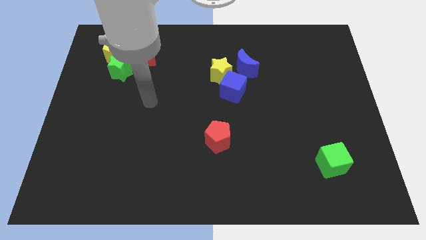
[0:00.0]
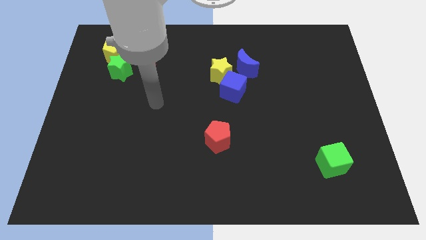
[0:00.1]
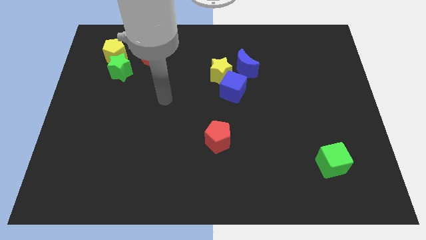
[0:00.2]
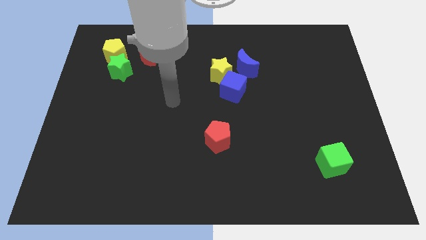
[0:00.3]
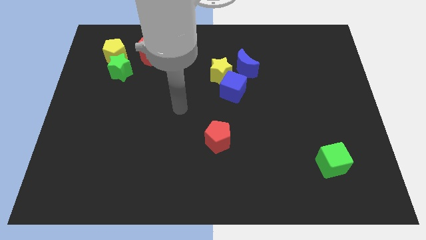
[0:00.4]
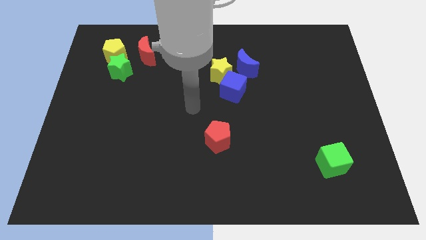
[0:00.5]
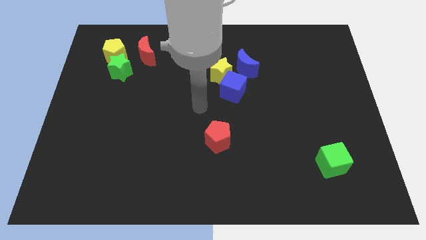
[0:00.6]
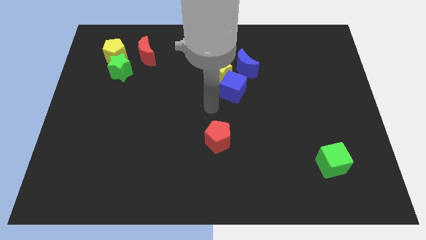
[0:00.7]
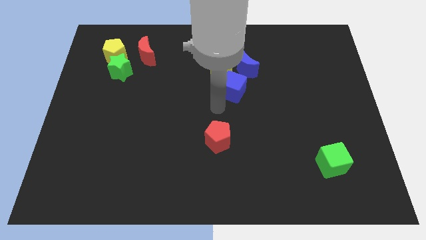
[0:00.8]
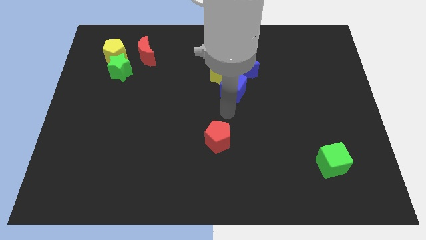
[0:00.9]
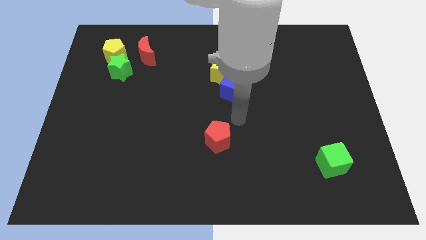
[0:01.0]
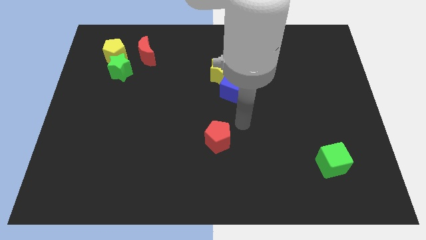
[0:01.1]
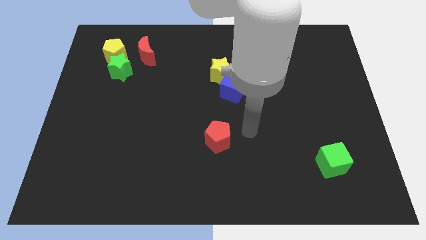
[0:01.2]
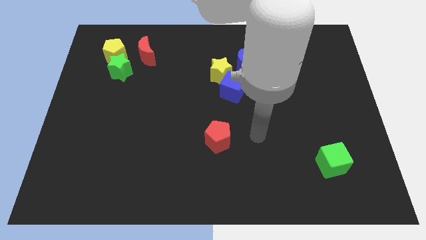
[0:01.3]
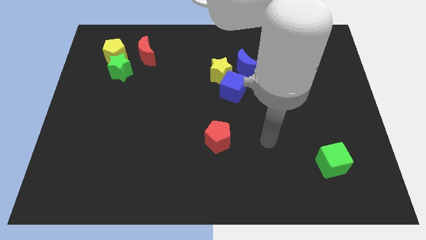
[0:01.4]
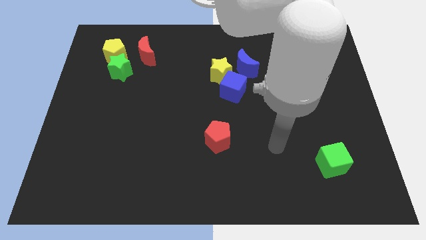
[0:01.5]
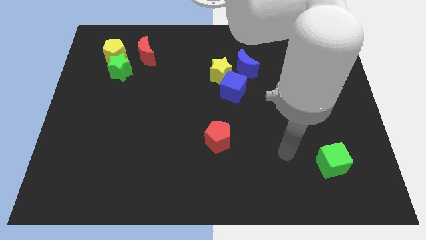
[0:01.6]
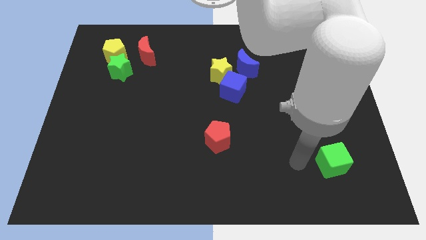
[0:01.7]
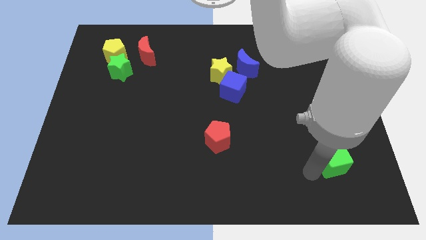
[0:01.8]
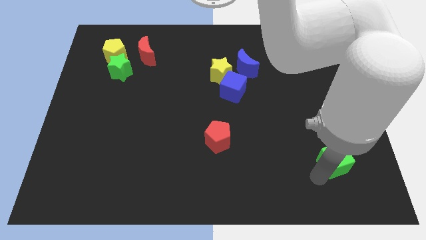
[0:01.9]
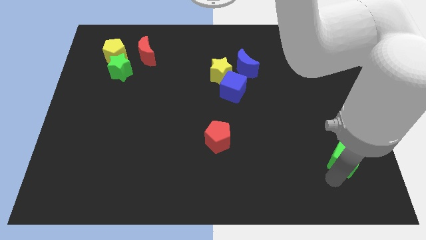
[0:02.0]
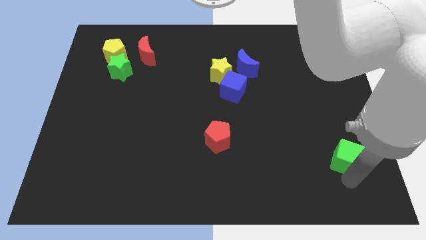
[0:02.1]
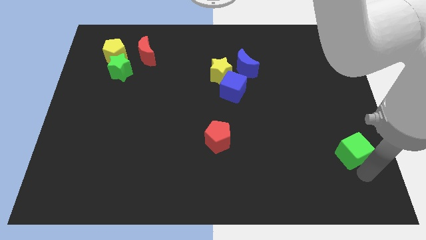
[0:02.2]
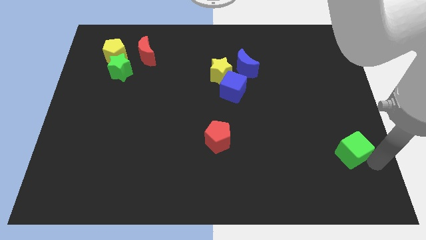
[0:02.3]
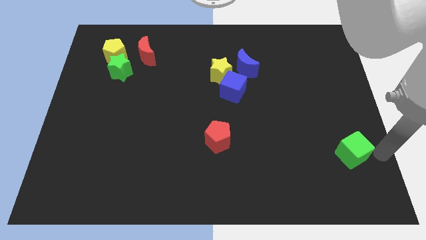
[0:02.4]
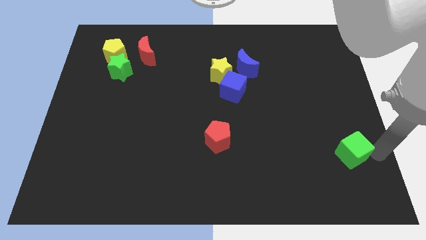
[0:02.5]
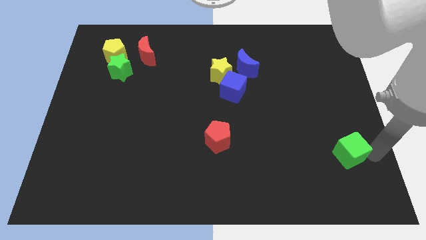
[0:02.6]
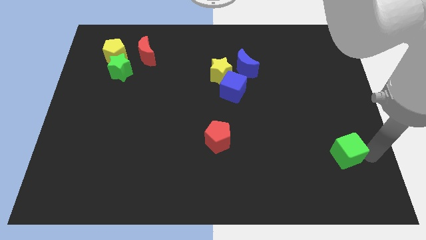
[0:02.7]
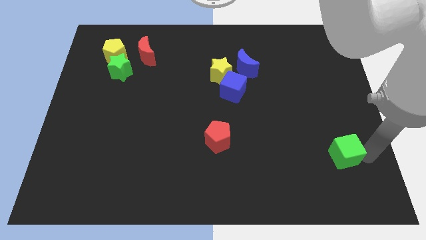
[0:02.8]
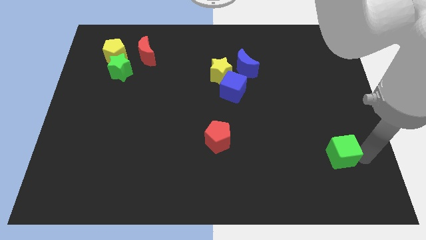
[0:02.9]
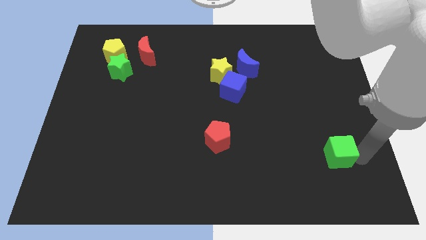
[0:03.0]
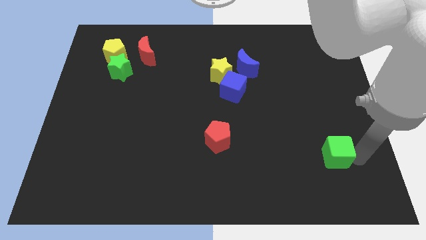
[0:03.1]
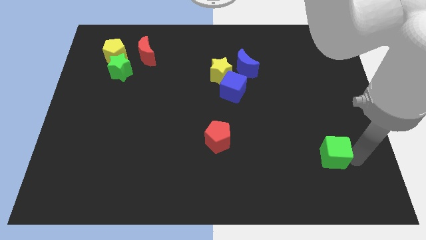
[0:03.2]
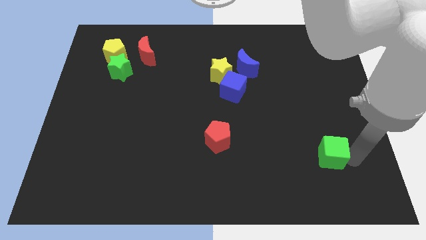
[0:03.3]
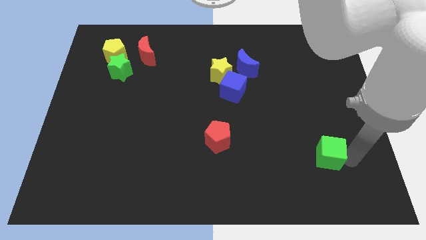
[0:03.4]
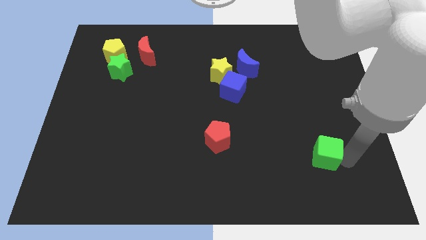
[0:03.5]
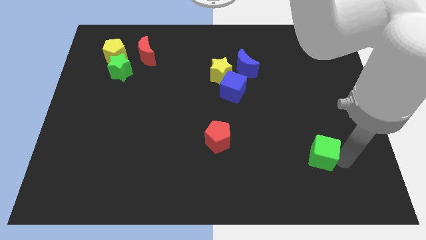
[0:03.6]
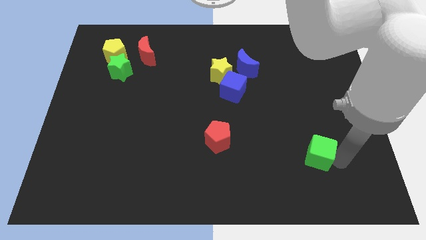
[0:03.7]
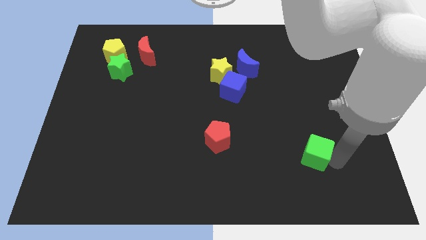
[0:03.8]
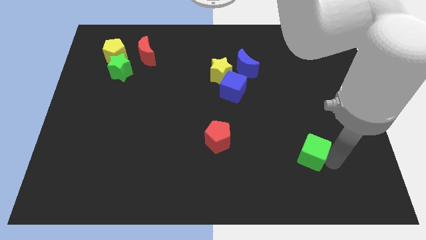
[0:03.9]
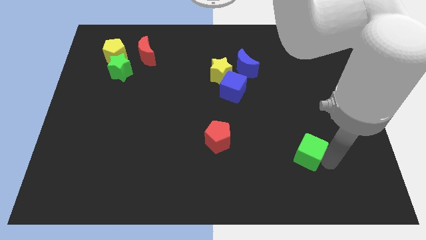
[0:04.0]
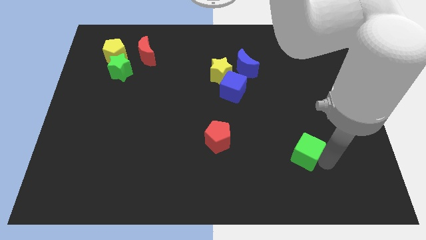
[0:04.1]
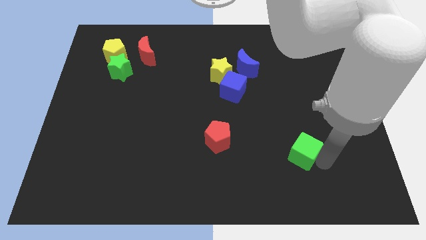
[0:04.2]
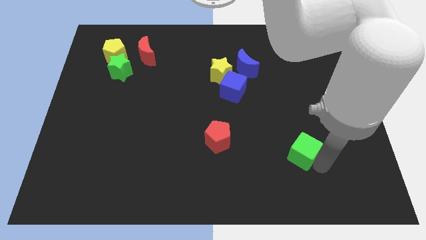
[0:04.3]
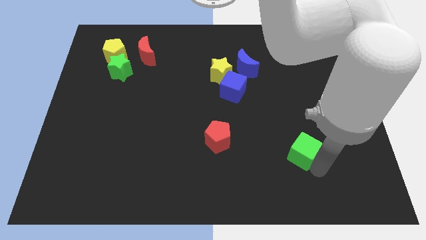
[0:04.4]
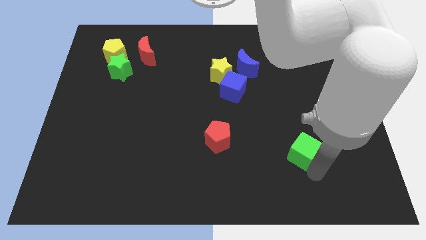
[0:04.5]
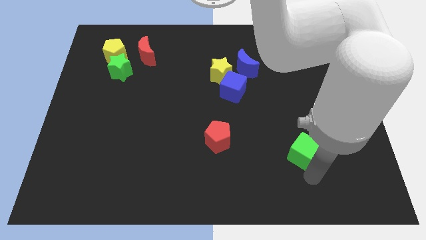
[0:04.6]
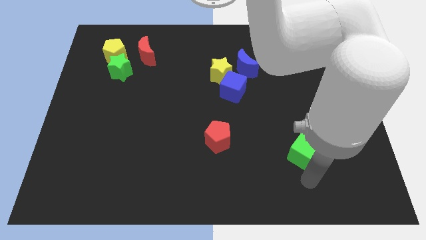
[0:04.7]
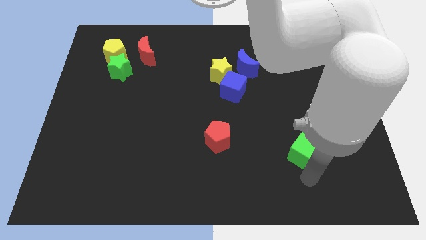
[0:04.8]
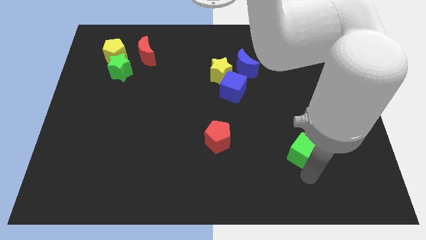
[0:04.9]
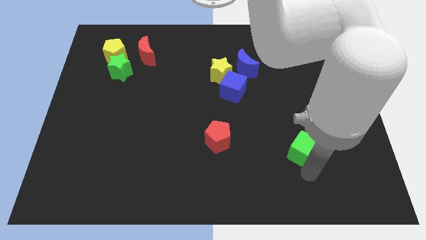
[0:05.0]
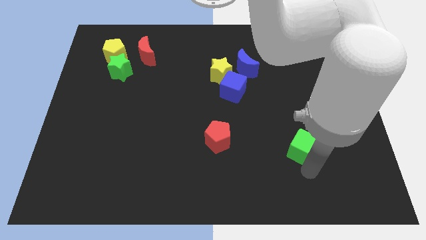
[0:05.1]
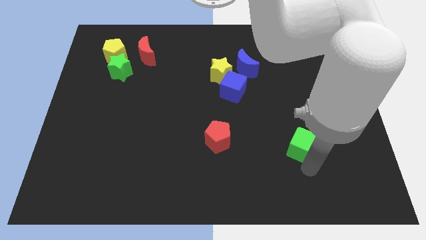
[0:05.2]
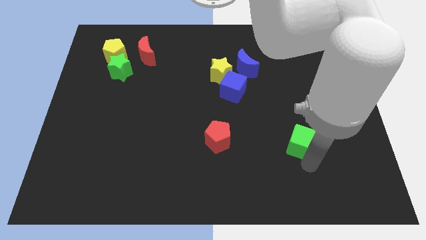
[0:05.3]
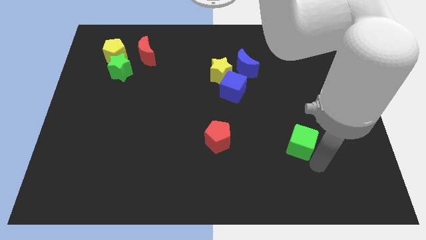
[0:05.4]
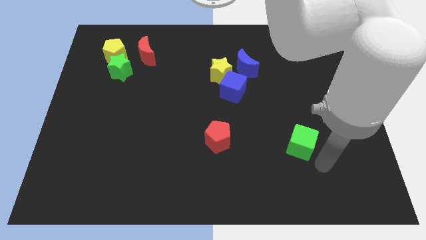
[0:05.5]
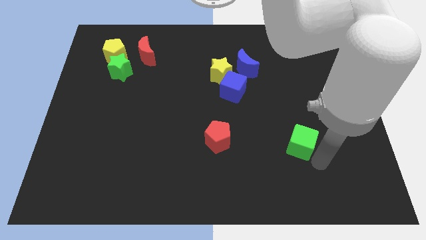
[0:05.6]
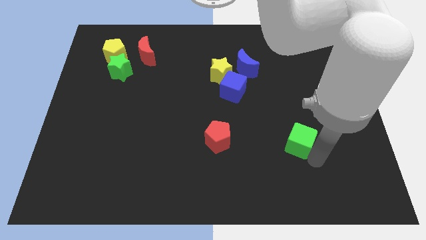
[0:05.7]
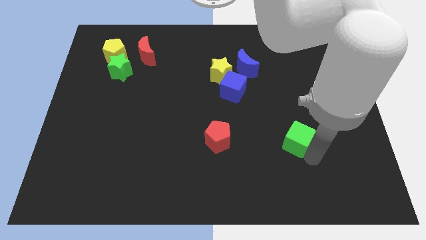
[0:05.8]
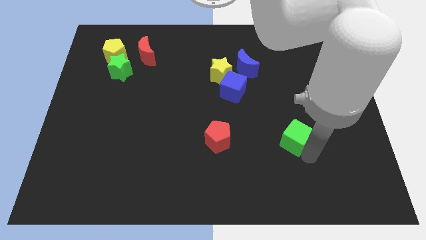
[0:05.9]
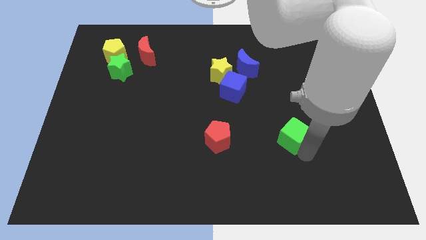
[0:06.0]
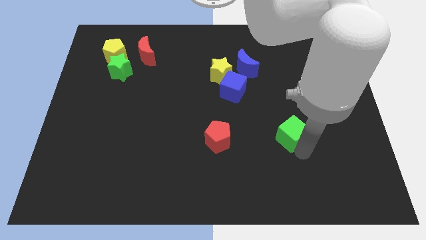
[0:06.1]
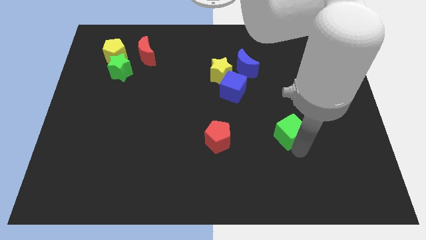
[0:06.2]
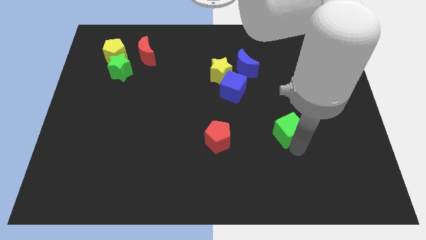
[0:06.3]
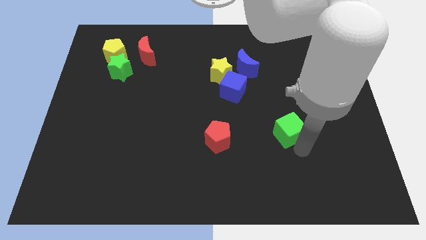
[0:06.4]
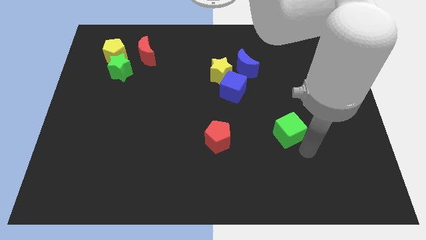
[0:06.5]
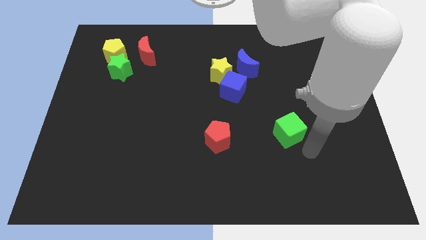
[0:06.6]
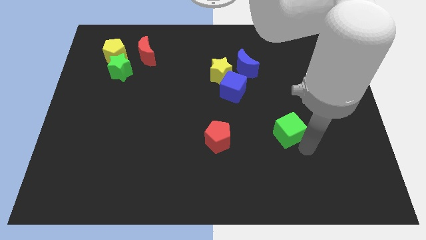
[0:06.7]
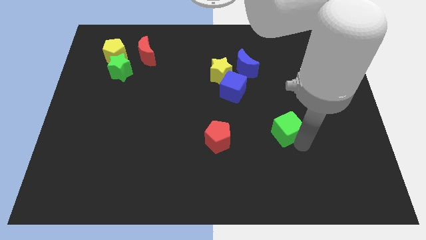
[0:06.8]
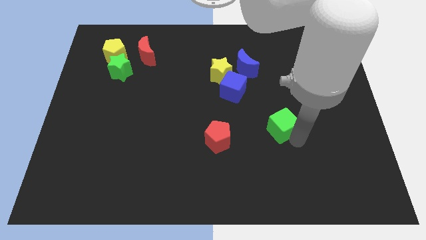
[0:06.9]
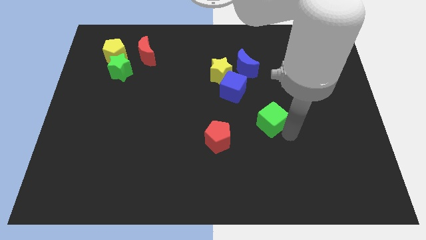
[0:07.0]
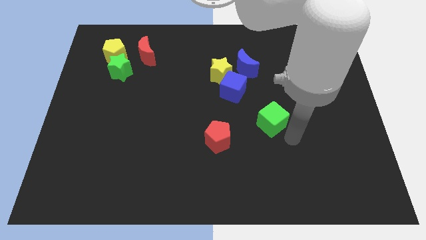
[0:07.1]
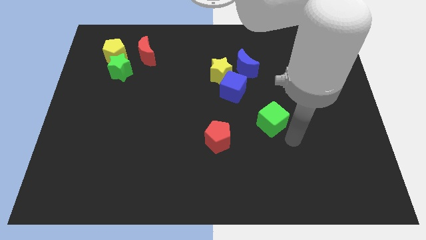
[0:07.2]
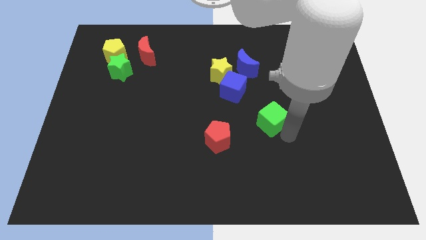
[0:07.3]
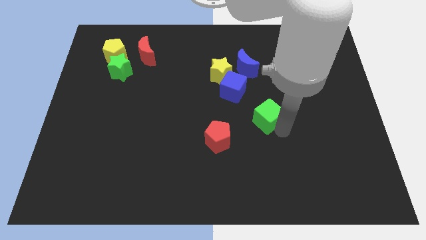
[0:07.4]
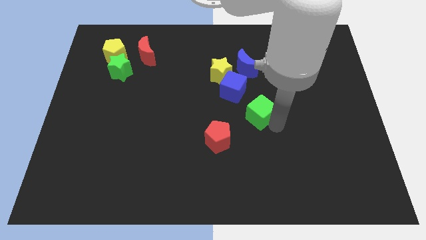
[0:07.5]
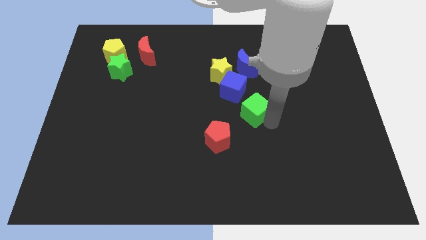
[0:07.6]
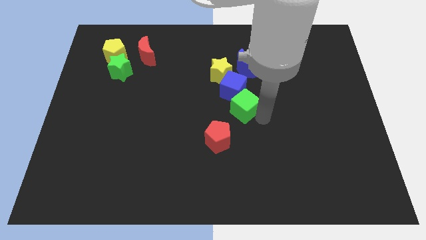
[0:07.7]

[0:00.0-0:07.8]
slide the green cube close to the blue cube
